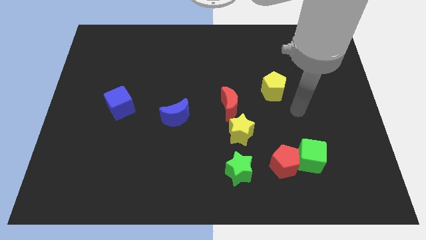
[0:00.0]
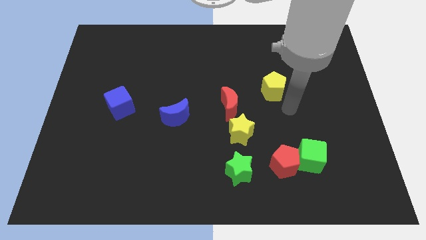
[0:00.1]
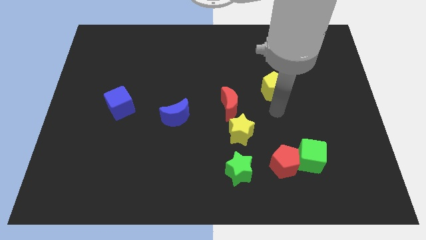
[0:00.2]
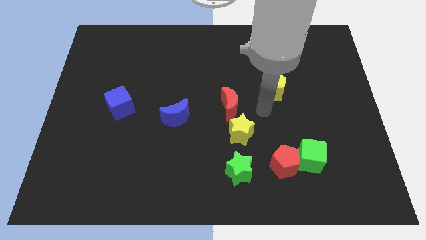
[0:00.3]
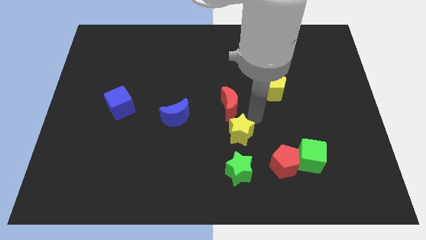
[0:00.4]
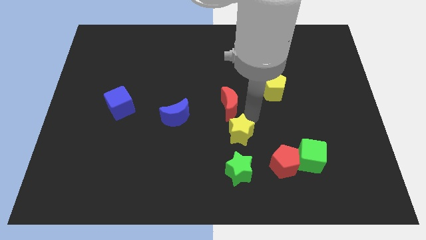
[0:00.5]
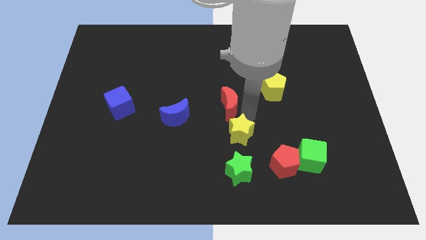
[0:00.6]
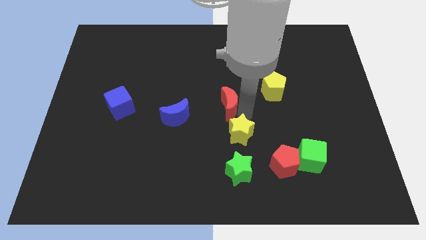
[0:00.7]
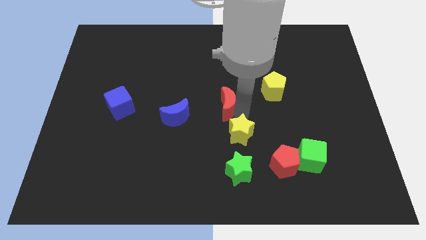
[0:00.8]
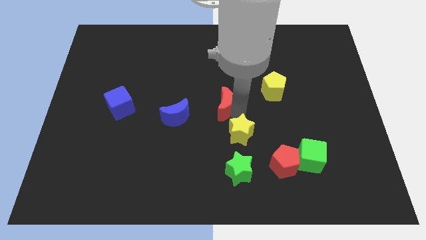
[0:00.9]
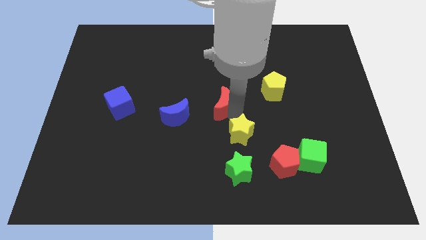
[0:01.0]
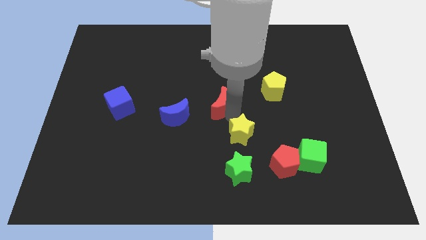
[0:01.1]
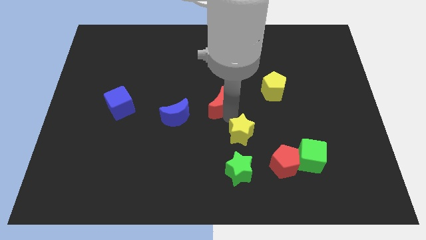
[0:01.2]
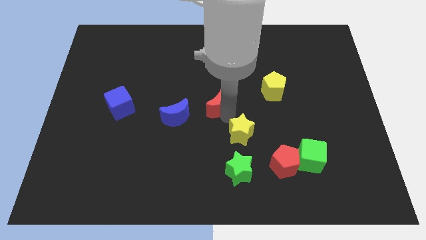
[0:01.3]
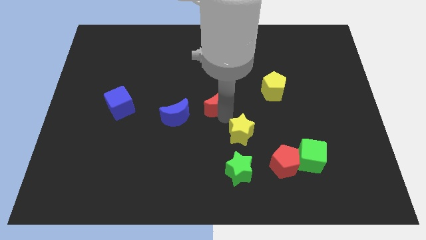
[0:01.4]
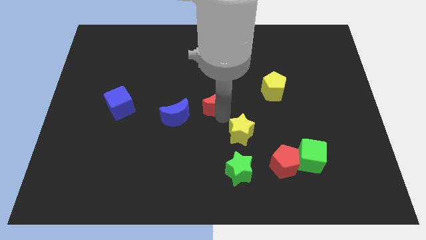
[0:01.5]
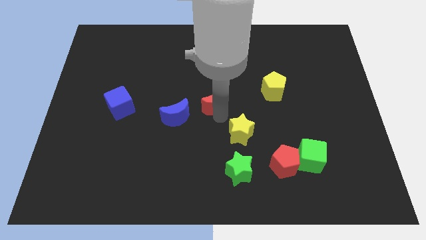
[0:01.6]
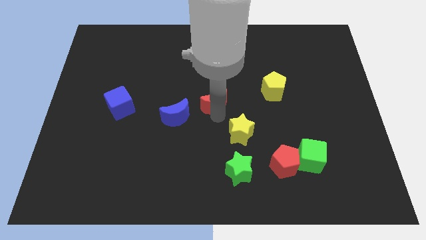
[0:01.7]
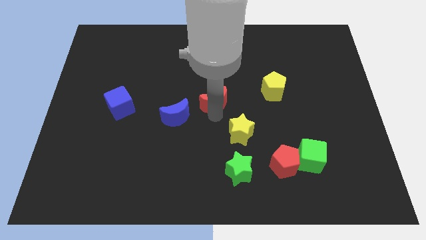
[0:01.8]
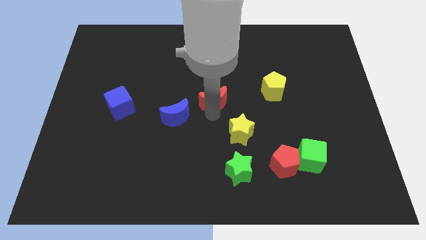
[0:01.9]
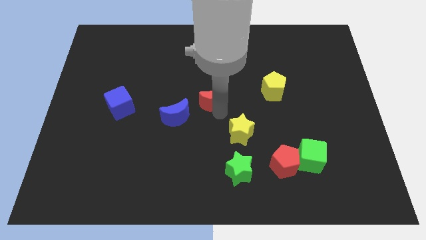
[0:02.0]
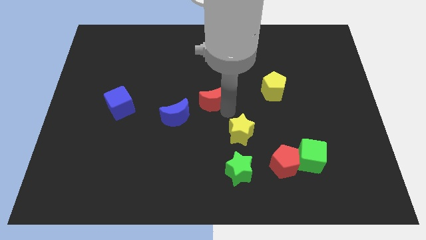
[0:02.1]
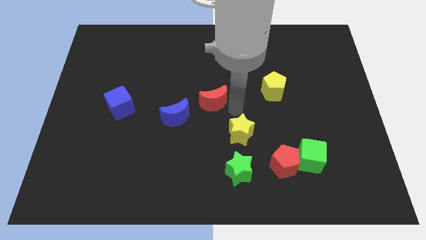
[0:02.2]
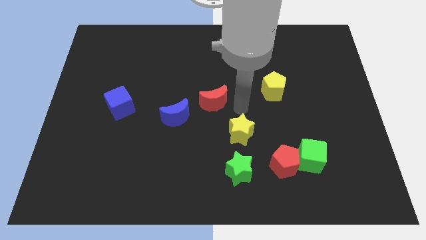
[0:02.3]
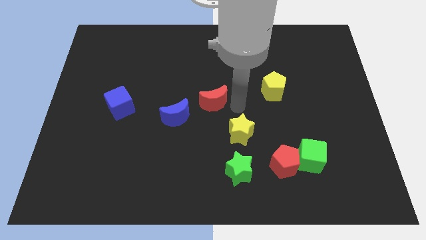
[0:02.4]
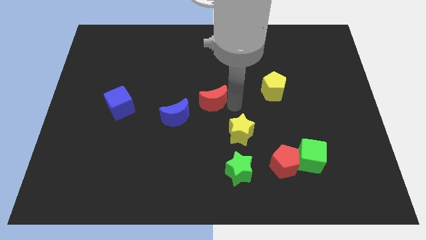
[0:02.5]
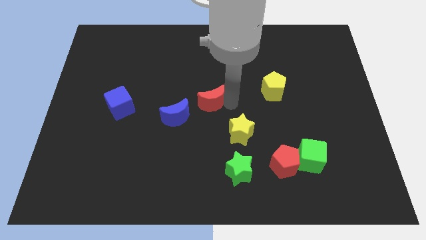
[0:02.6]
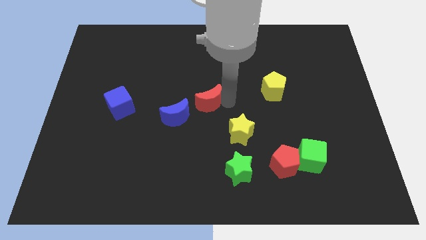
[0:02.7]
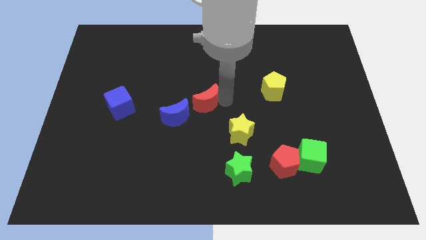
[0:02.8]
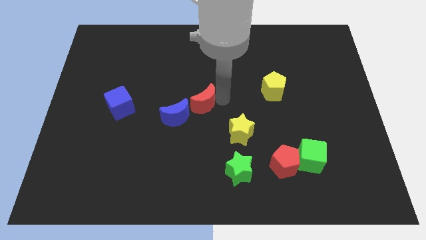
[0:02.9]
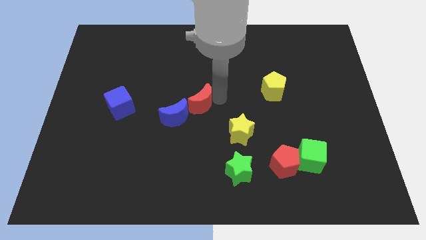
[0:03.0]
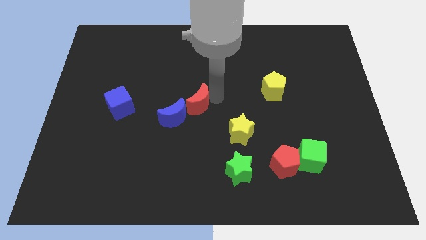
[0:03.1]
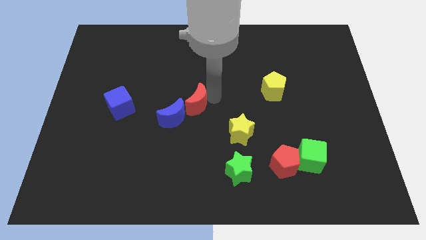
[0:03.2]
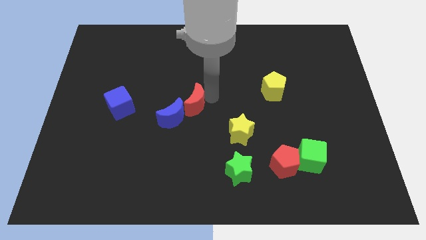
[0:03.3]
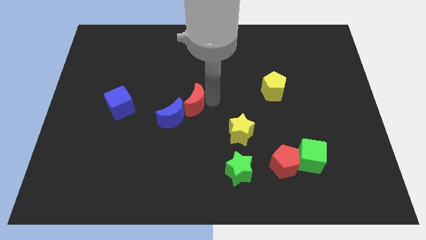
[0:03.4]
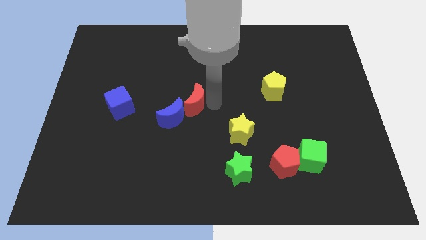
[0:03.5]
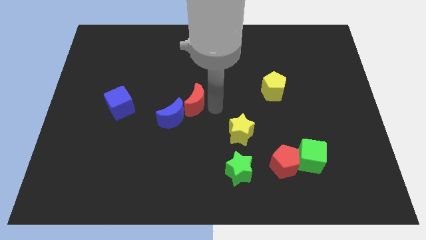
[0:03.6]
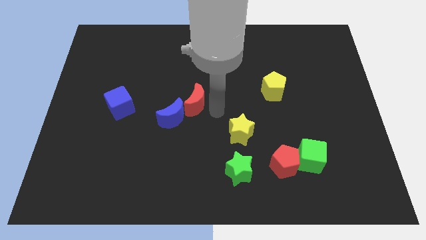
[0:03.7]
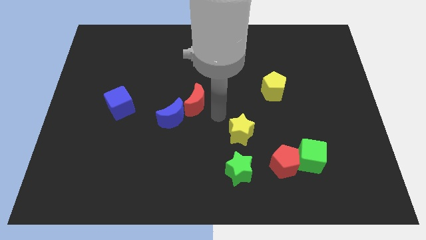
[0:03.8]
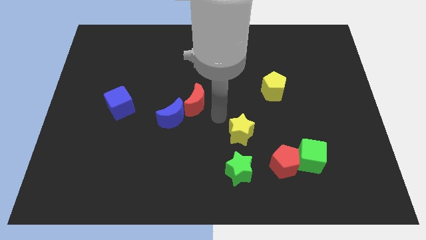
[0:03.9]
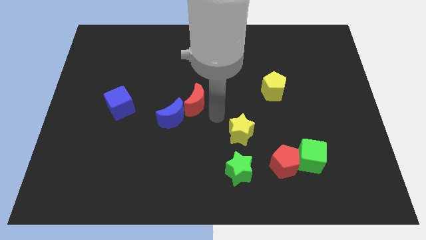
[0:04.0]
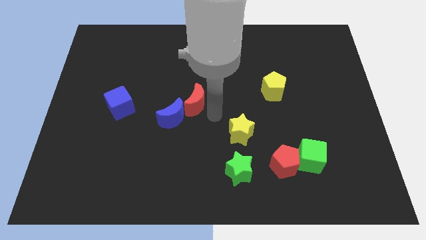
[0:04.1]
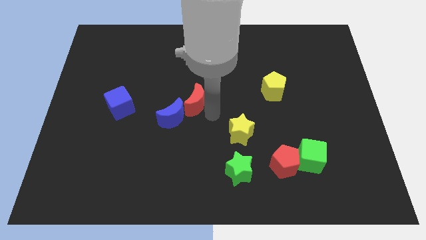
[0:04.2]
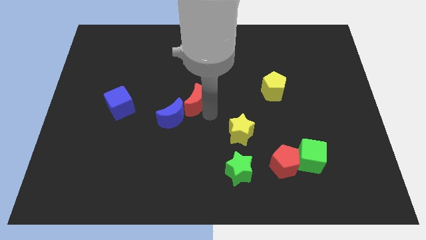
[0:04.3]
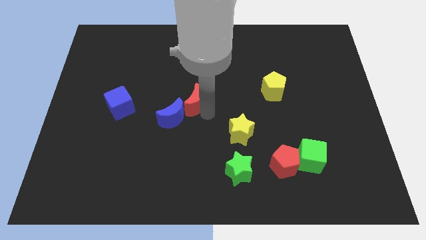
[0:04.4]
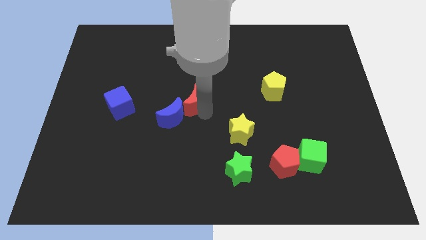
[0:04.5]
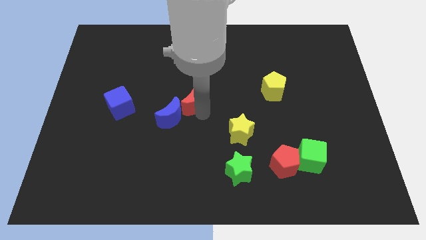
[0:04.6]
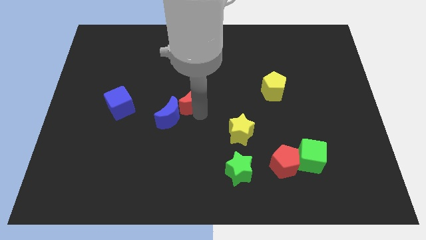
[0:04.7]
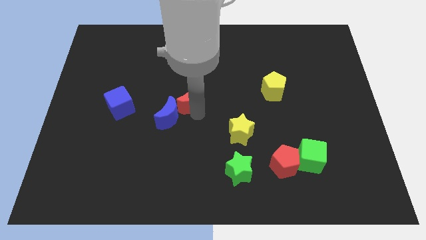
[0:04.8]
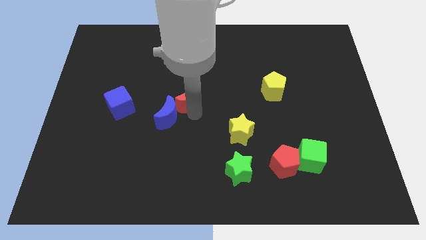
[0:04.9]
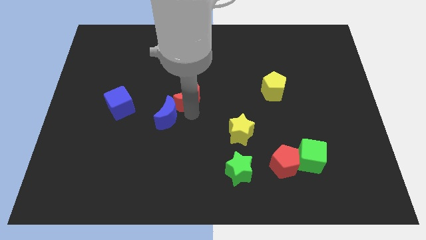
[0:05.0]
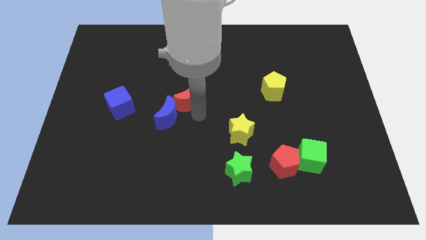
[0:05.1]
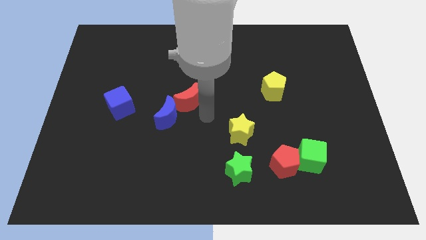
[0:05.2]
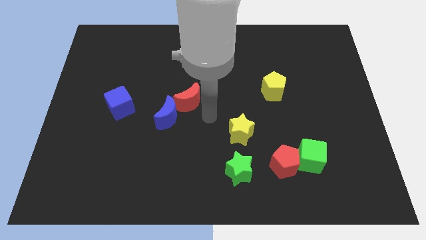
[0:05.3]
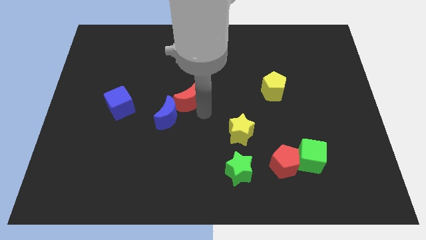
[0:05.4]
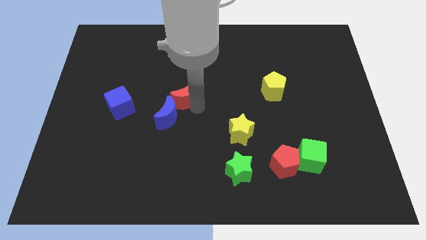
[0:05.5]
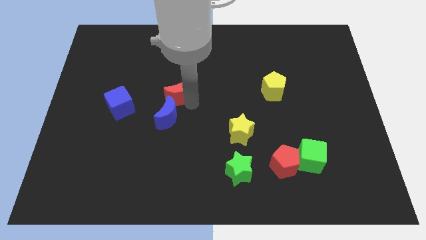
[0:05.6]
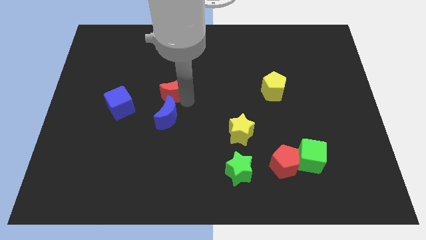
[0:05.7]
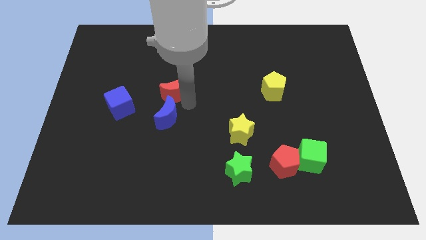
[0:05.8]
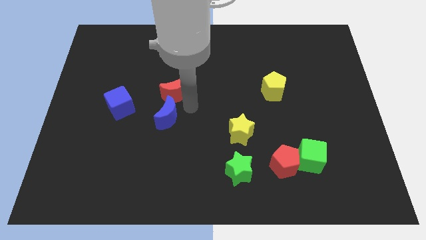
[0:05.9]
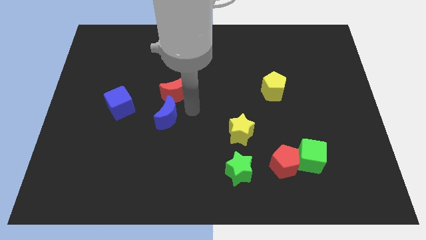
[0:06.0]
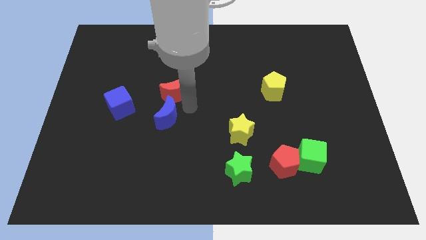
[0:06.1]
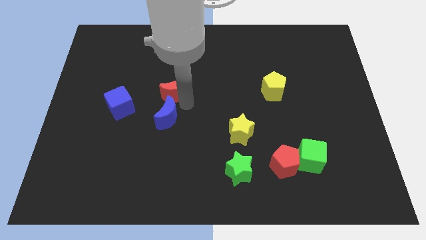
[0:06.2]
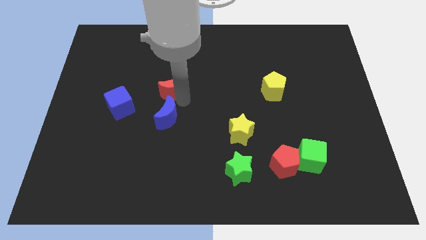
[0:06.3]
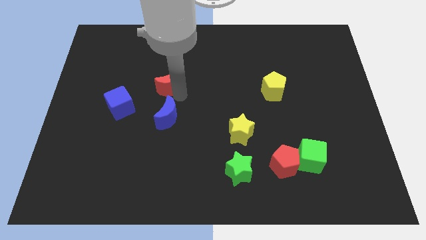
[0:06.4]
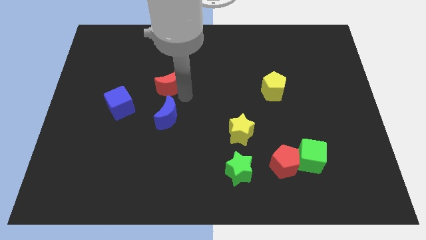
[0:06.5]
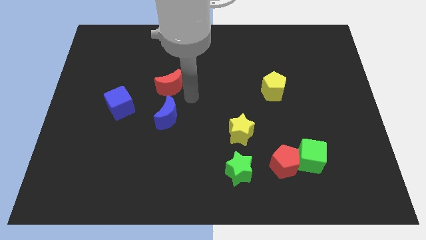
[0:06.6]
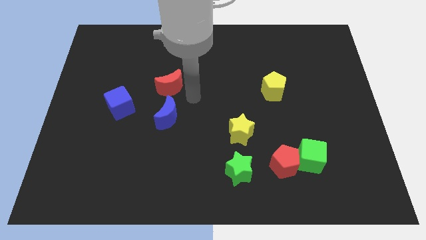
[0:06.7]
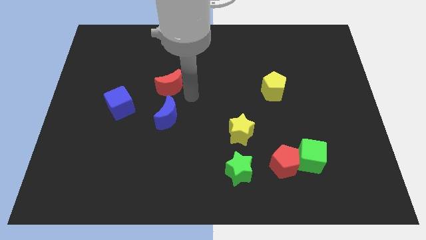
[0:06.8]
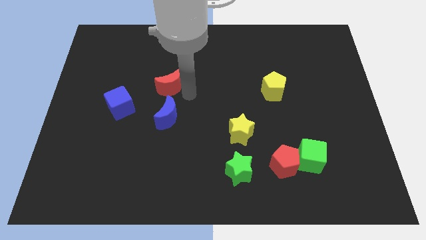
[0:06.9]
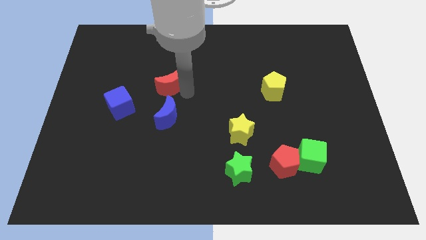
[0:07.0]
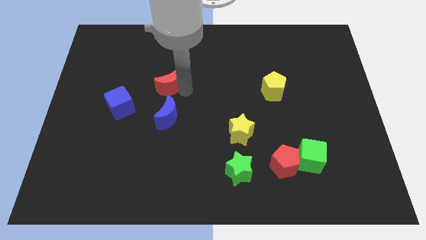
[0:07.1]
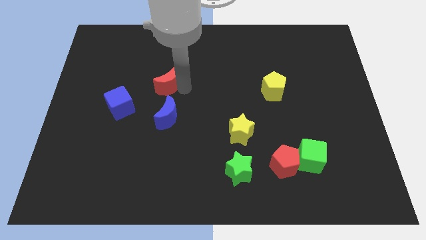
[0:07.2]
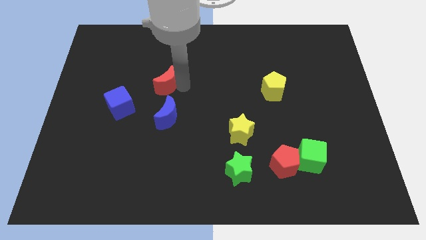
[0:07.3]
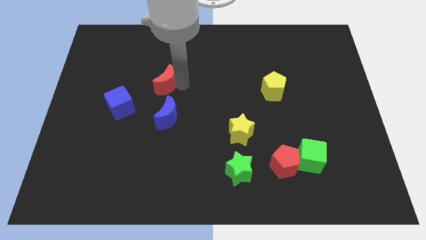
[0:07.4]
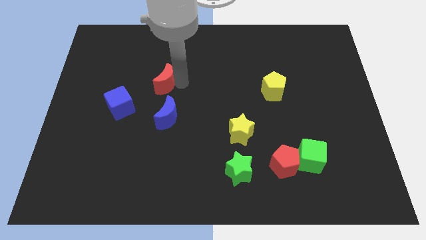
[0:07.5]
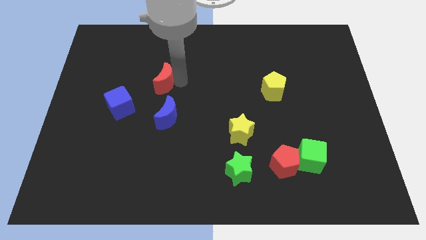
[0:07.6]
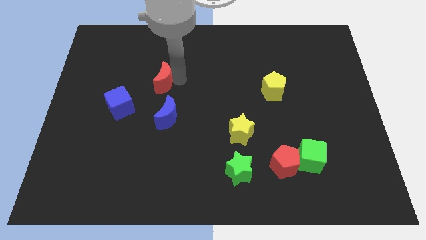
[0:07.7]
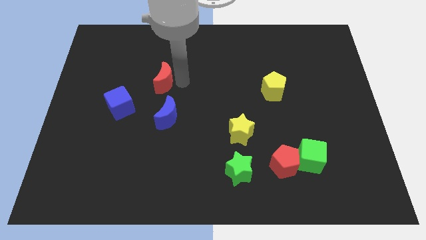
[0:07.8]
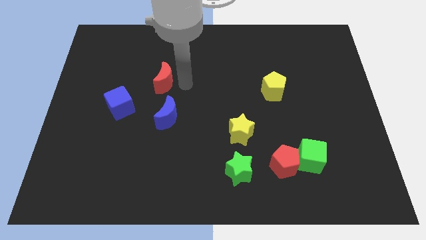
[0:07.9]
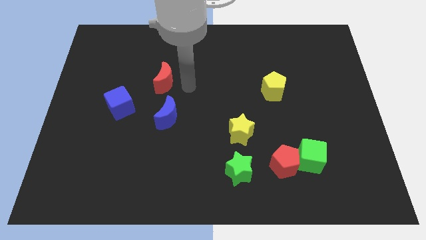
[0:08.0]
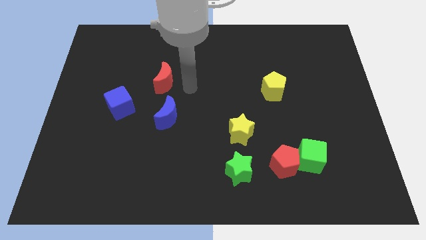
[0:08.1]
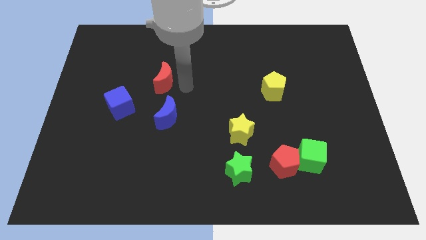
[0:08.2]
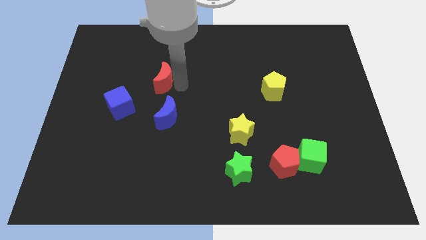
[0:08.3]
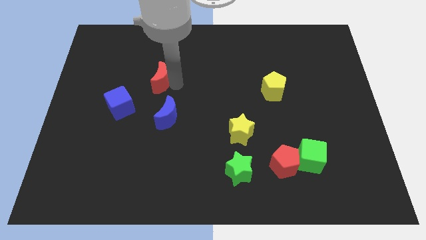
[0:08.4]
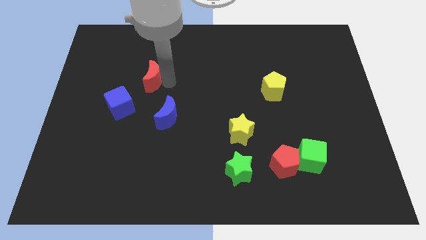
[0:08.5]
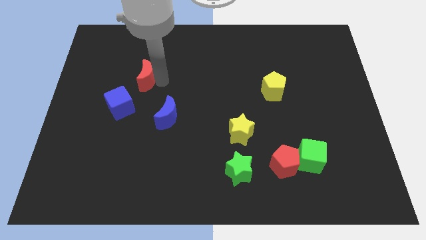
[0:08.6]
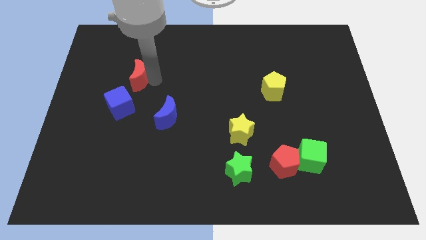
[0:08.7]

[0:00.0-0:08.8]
slide the red moon above the blue cube
